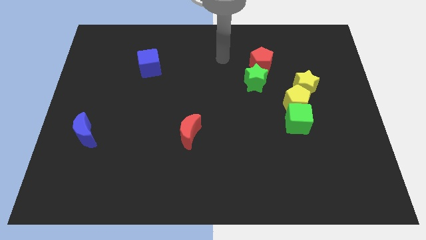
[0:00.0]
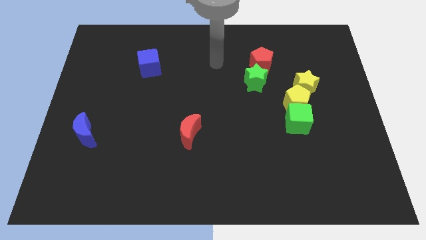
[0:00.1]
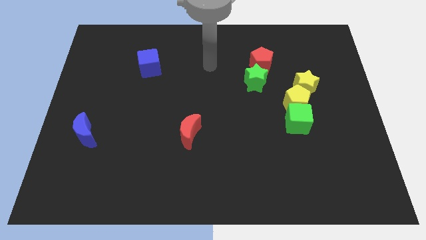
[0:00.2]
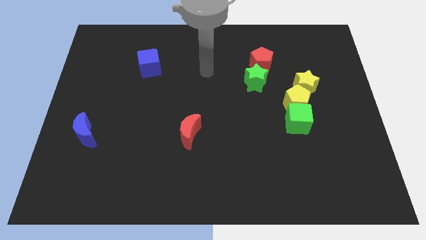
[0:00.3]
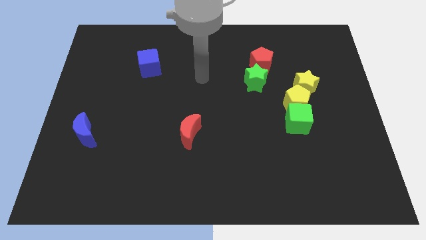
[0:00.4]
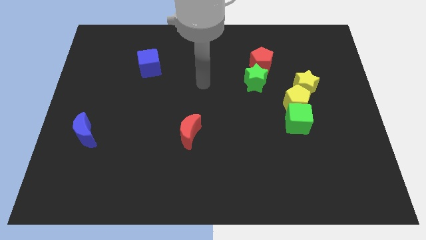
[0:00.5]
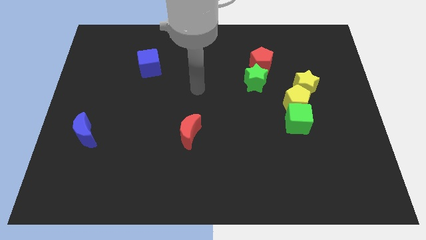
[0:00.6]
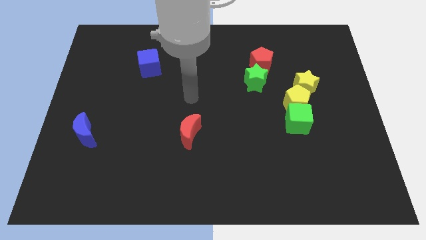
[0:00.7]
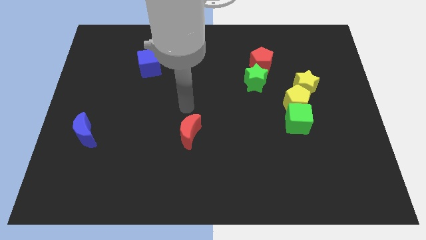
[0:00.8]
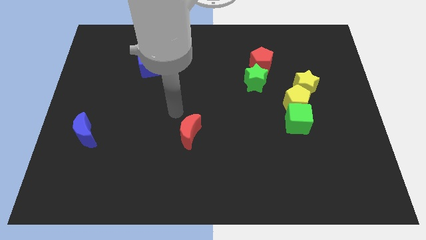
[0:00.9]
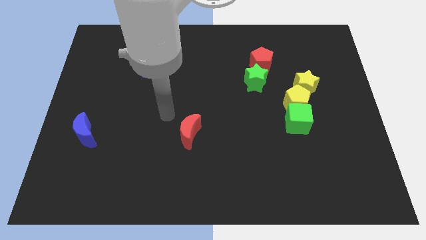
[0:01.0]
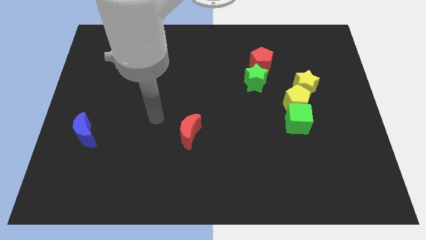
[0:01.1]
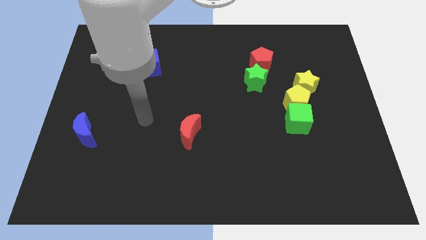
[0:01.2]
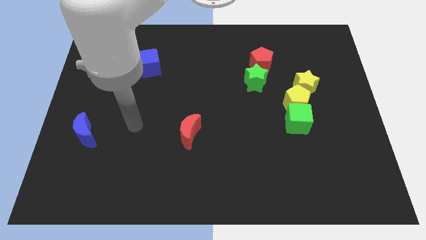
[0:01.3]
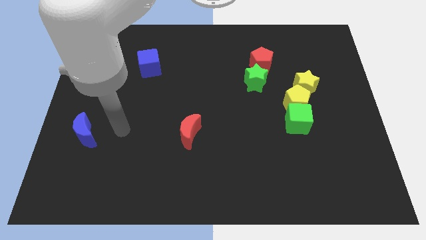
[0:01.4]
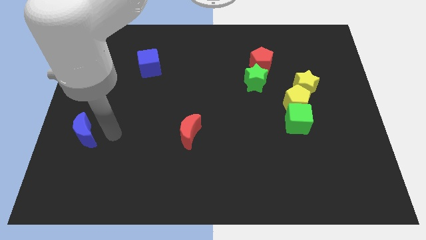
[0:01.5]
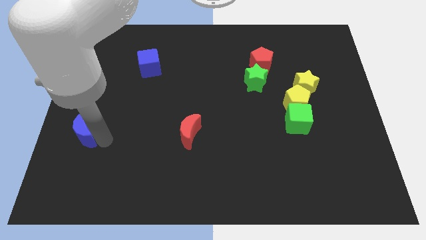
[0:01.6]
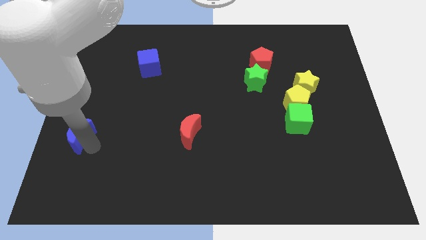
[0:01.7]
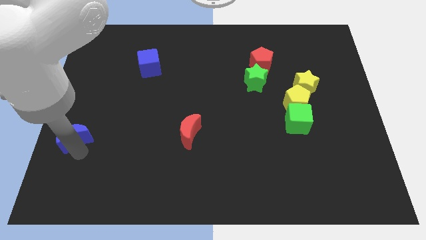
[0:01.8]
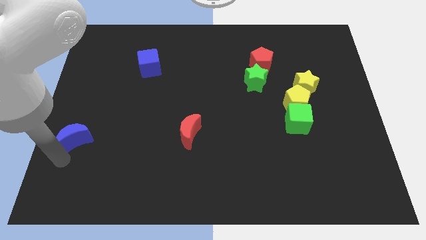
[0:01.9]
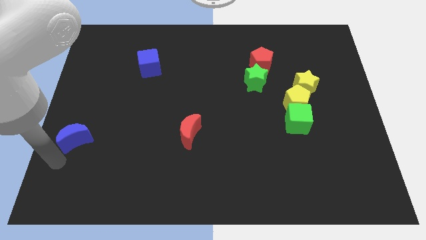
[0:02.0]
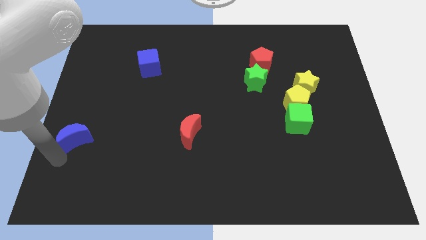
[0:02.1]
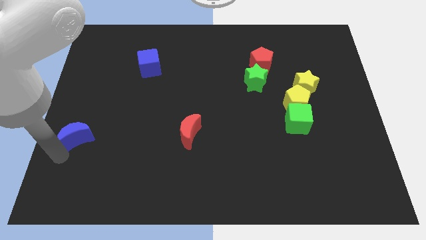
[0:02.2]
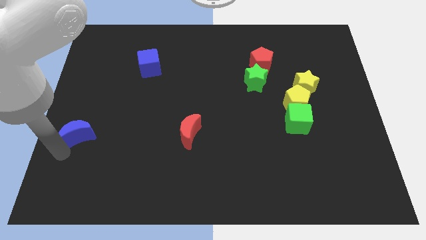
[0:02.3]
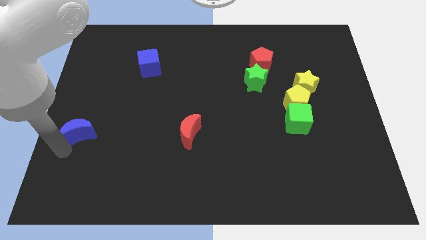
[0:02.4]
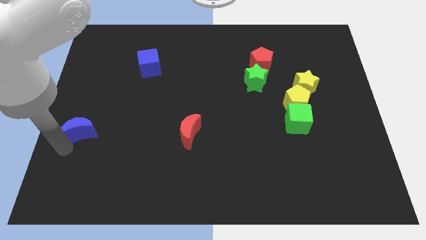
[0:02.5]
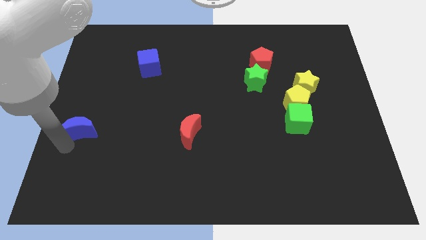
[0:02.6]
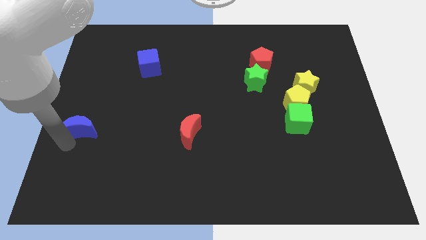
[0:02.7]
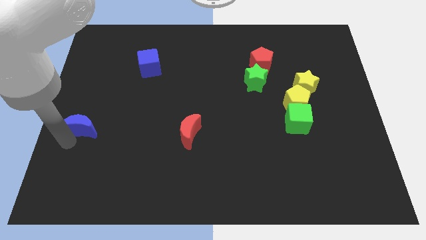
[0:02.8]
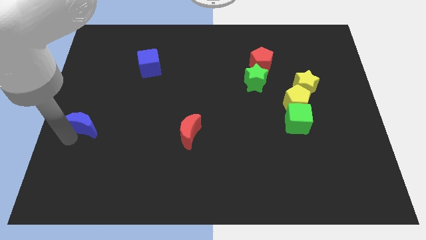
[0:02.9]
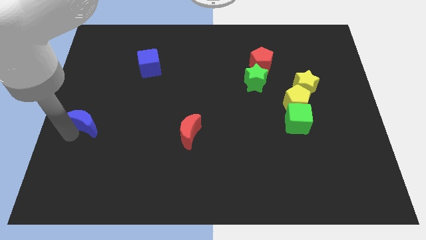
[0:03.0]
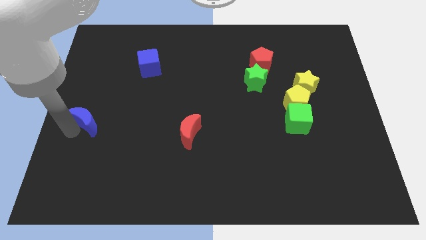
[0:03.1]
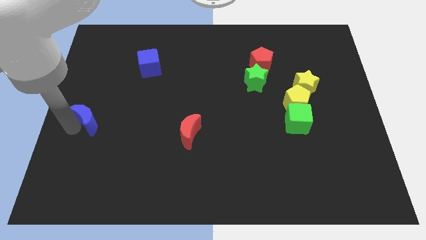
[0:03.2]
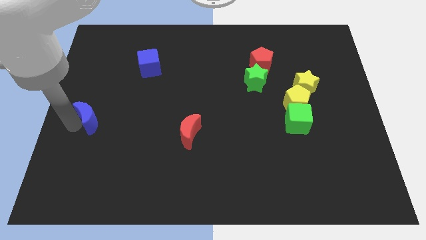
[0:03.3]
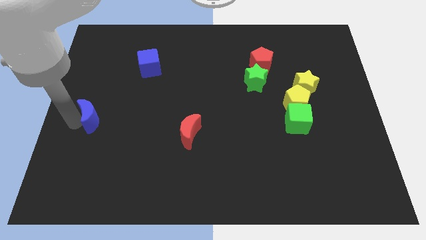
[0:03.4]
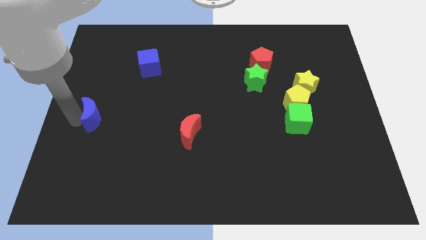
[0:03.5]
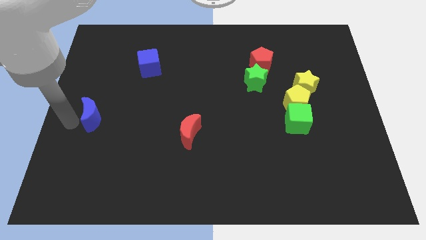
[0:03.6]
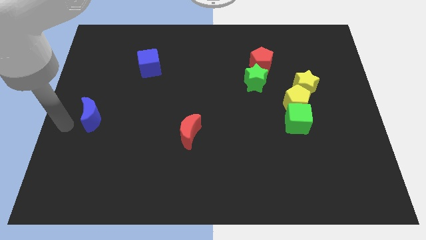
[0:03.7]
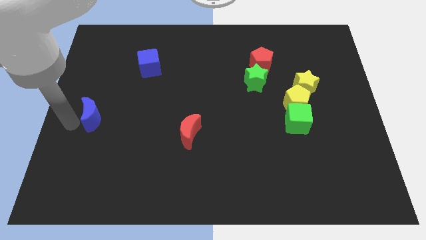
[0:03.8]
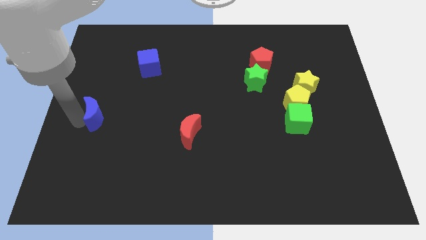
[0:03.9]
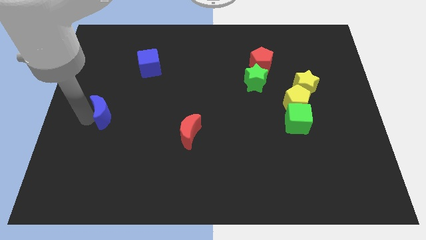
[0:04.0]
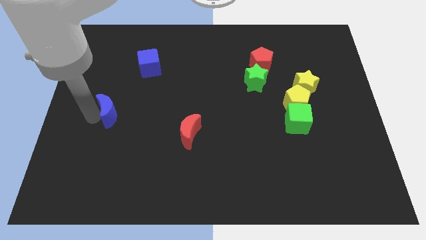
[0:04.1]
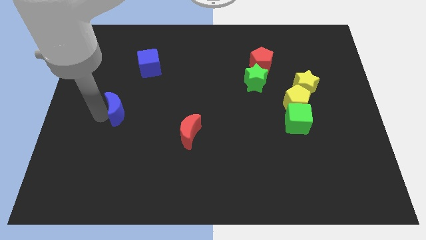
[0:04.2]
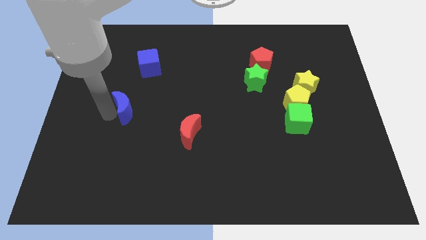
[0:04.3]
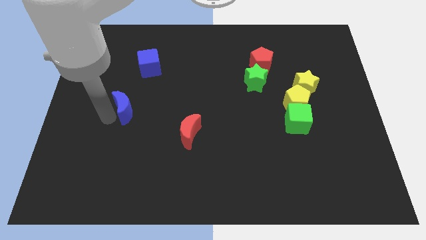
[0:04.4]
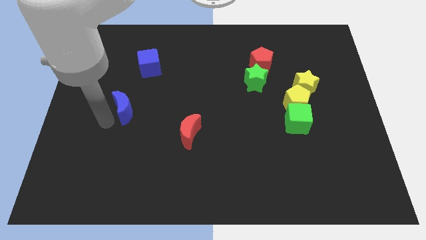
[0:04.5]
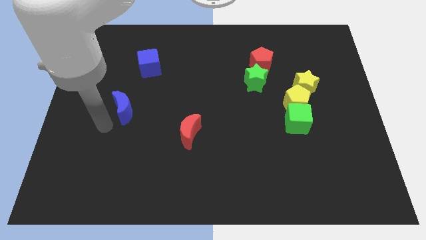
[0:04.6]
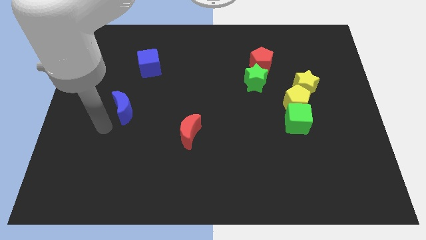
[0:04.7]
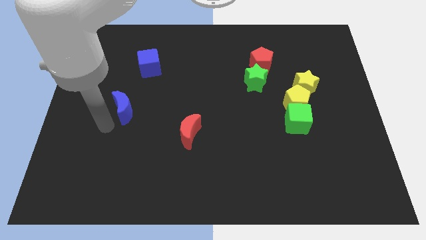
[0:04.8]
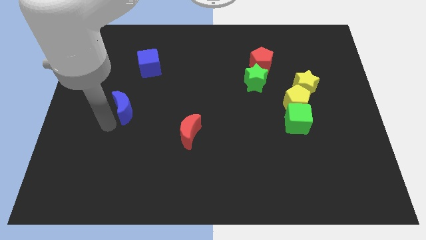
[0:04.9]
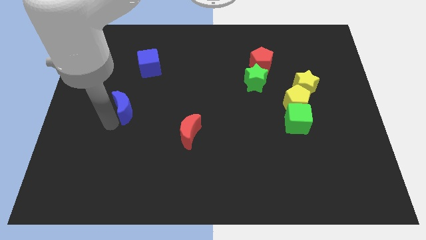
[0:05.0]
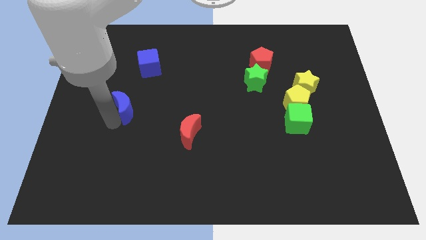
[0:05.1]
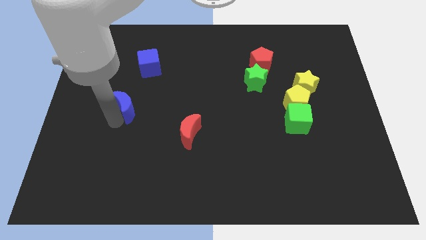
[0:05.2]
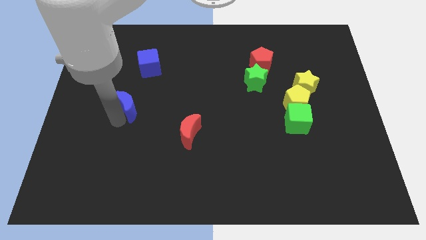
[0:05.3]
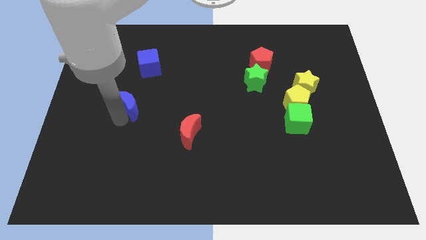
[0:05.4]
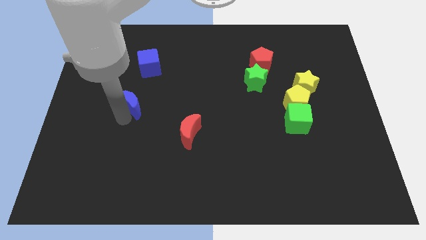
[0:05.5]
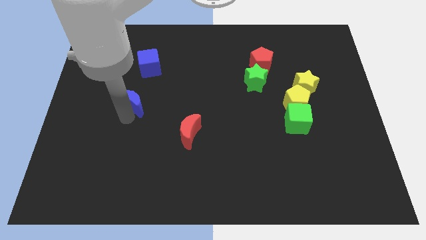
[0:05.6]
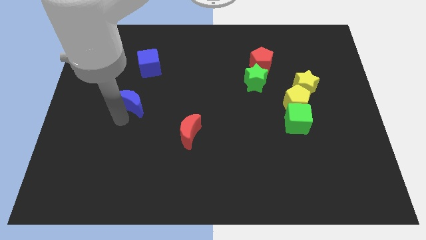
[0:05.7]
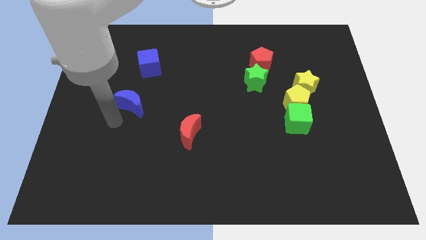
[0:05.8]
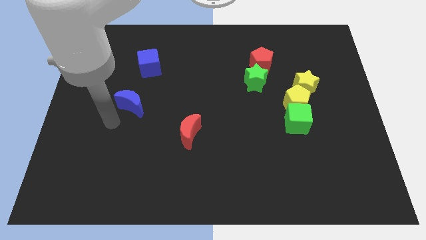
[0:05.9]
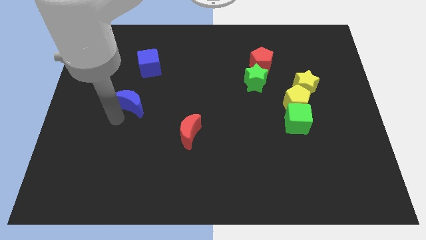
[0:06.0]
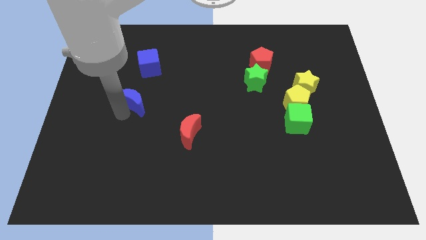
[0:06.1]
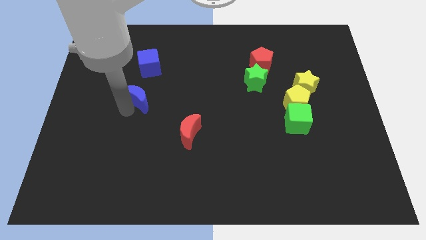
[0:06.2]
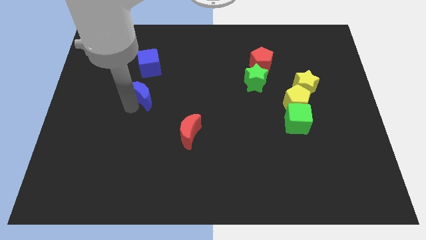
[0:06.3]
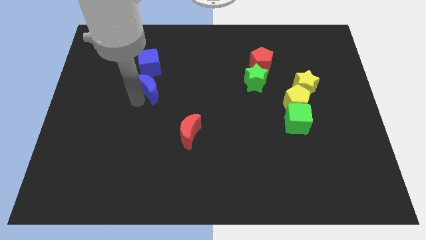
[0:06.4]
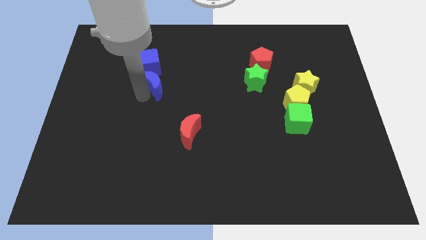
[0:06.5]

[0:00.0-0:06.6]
push the blue moon diagonally down and to the right of the blue cube

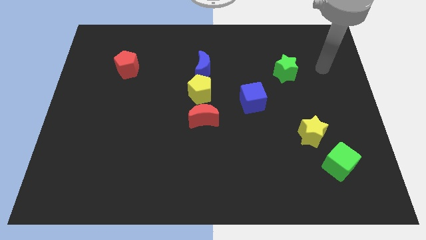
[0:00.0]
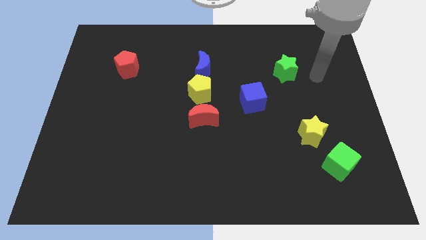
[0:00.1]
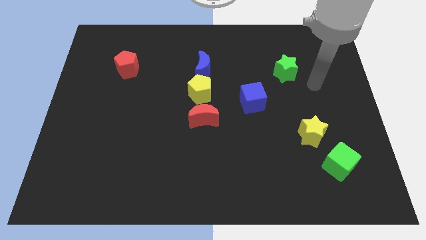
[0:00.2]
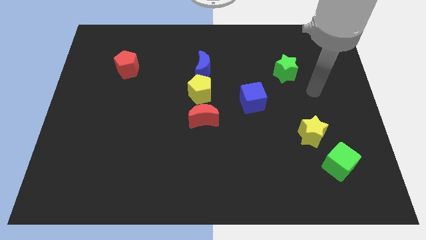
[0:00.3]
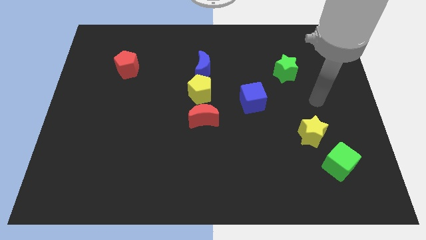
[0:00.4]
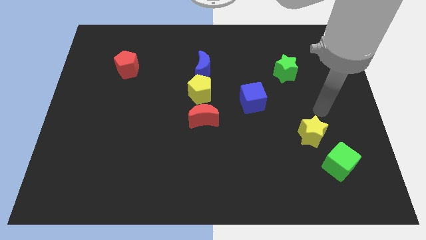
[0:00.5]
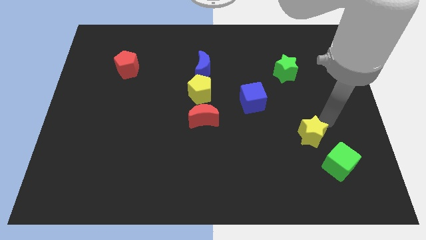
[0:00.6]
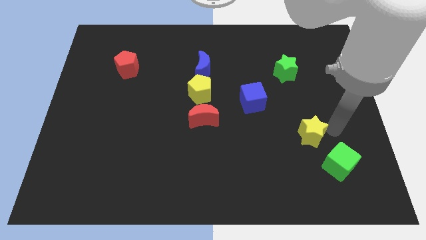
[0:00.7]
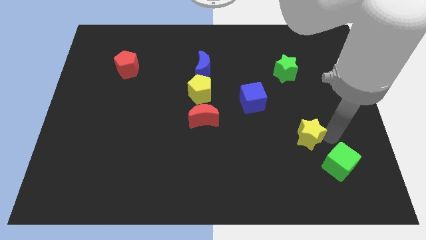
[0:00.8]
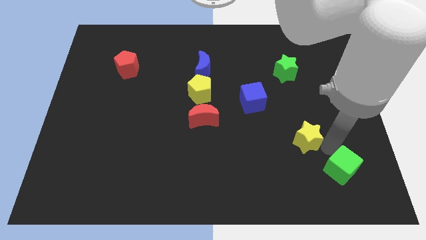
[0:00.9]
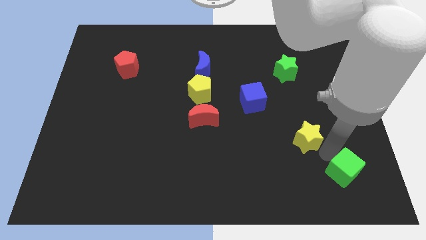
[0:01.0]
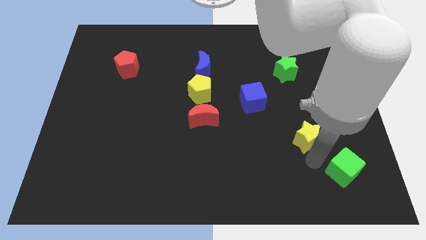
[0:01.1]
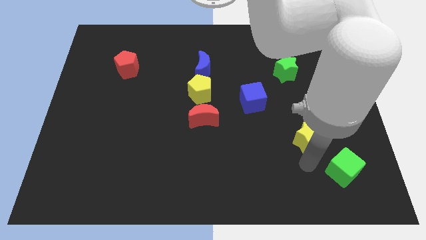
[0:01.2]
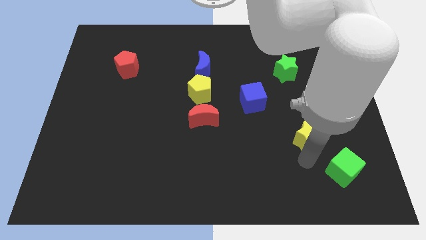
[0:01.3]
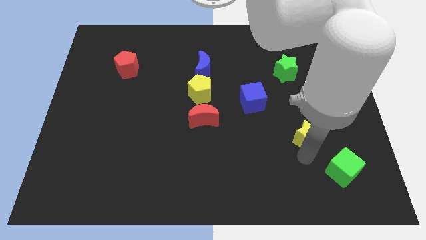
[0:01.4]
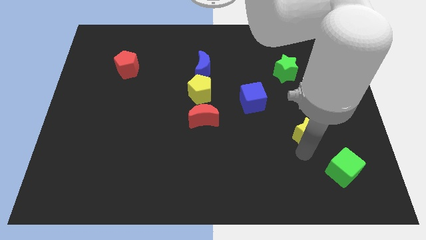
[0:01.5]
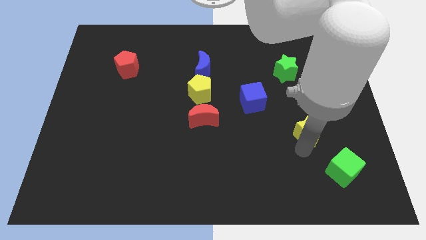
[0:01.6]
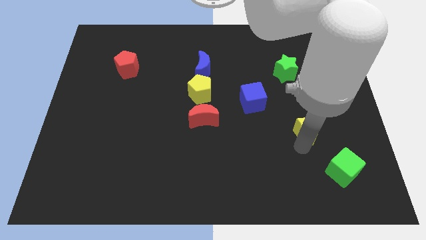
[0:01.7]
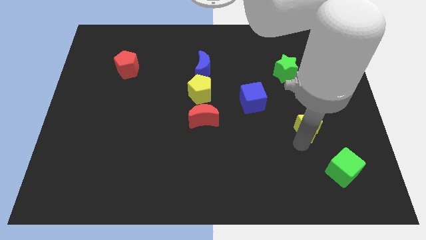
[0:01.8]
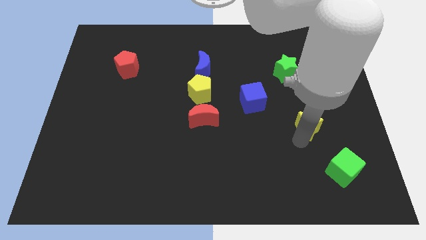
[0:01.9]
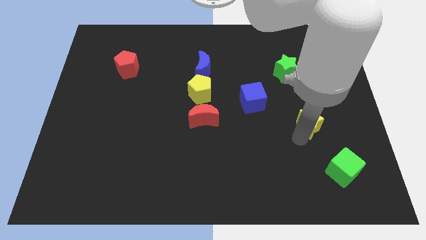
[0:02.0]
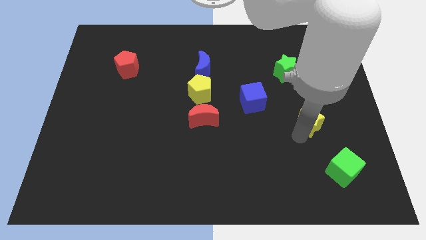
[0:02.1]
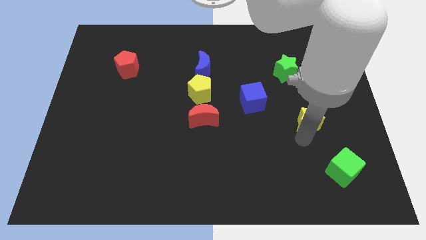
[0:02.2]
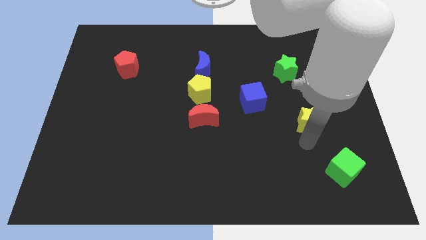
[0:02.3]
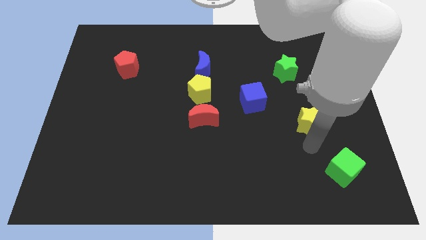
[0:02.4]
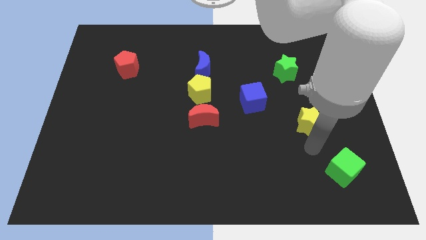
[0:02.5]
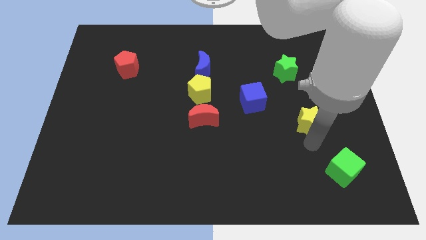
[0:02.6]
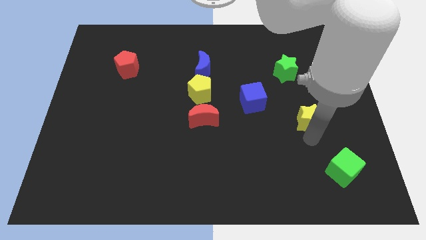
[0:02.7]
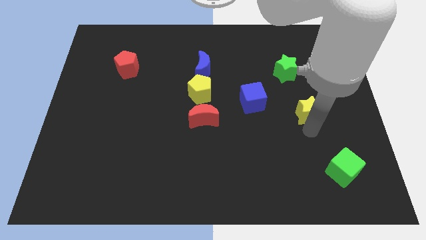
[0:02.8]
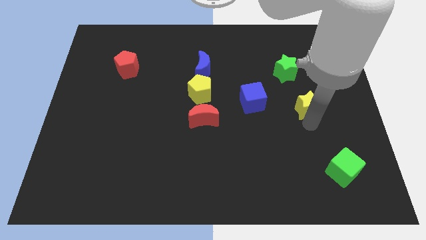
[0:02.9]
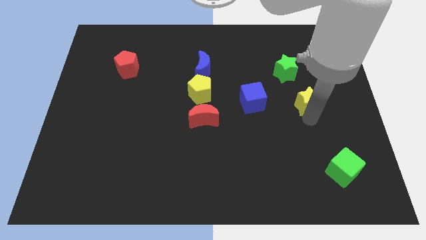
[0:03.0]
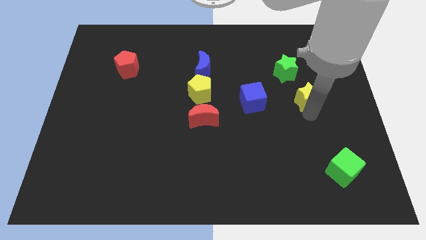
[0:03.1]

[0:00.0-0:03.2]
move the yellow star to the bottom right side of the green star
